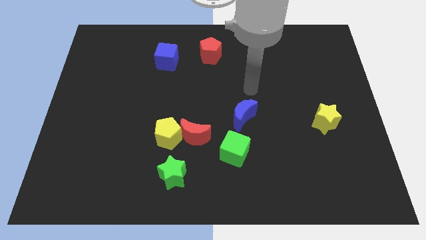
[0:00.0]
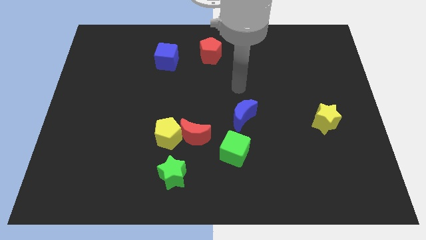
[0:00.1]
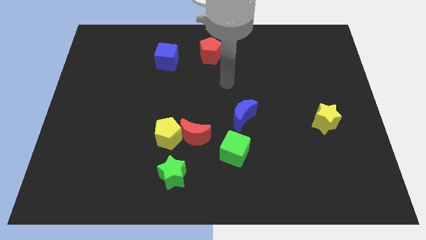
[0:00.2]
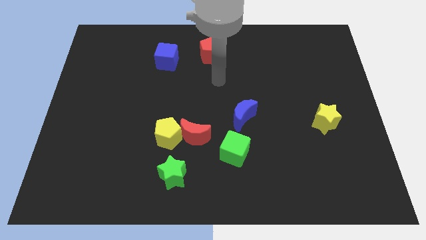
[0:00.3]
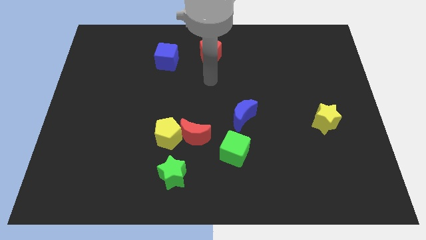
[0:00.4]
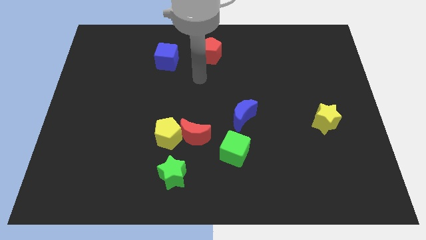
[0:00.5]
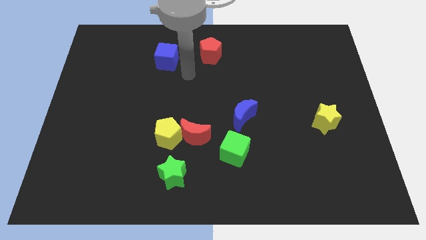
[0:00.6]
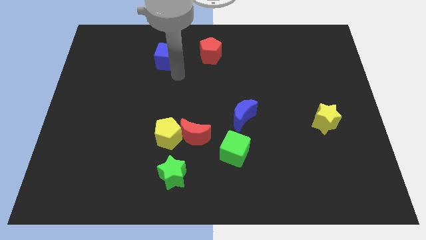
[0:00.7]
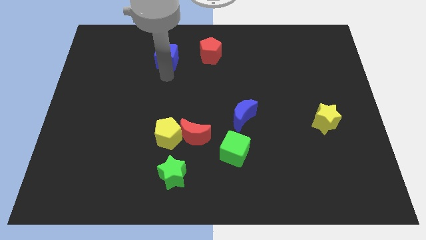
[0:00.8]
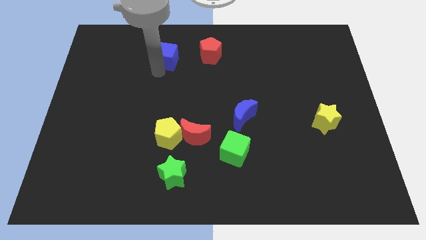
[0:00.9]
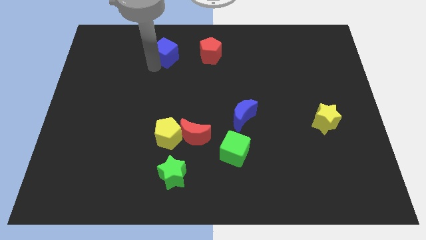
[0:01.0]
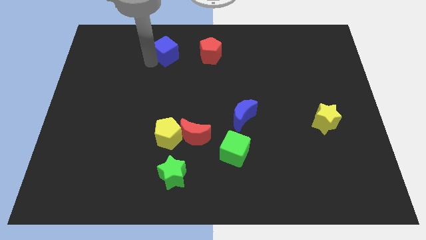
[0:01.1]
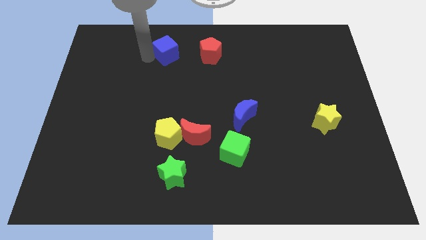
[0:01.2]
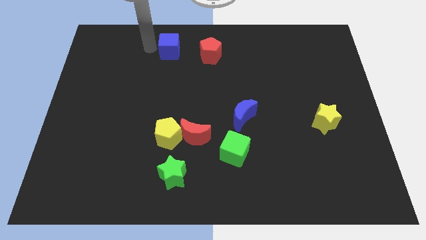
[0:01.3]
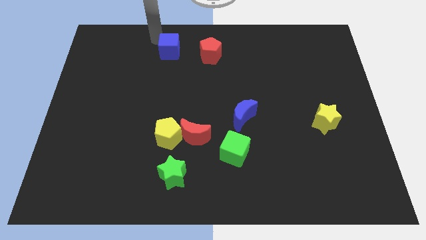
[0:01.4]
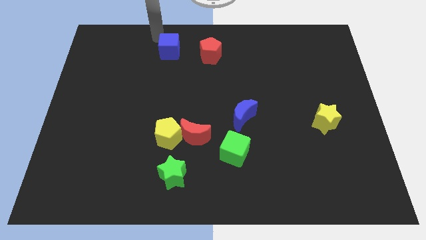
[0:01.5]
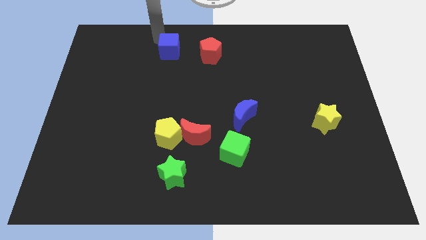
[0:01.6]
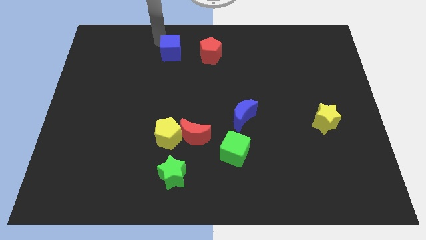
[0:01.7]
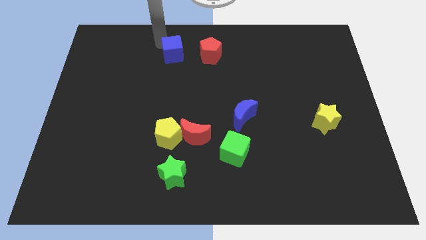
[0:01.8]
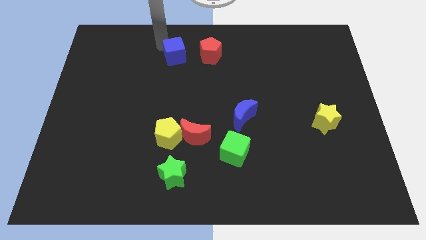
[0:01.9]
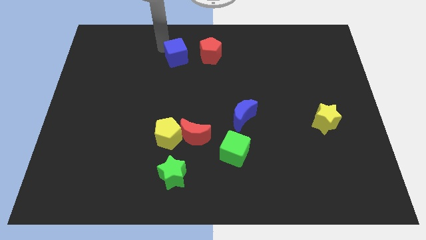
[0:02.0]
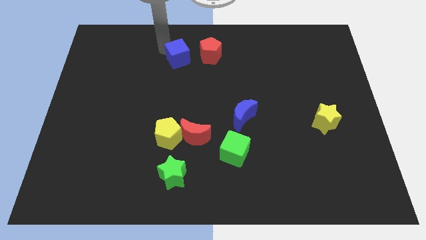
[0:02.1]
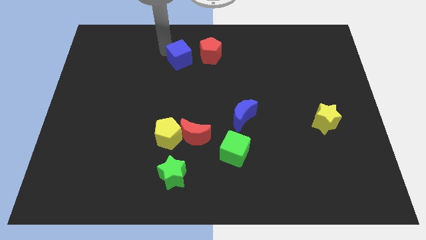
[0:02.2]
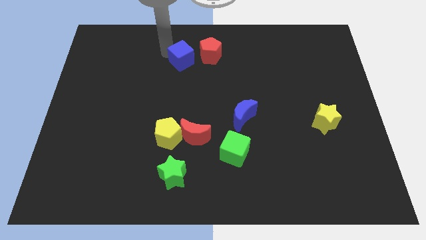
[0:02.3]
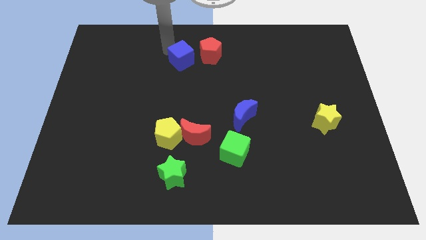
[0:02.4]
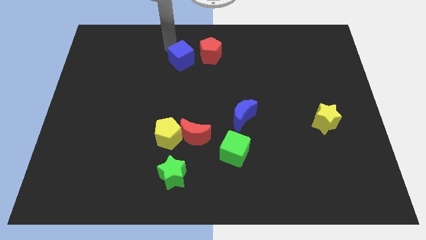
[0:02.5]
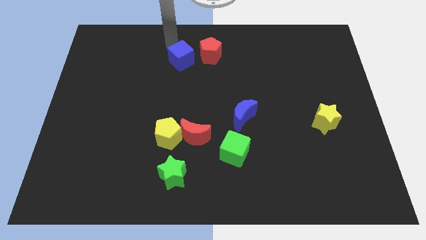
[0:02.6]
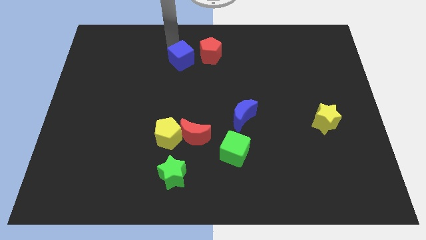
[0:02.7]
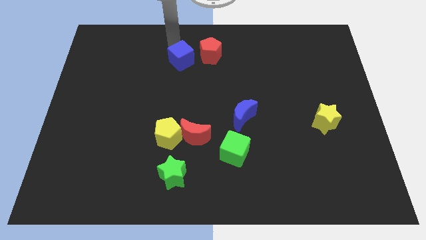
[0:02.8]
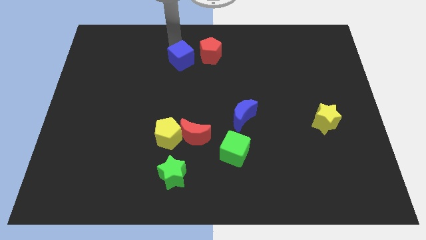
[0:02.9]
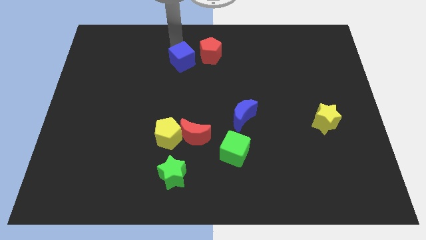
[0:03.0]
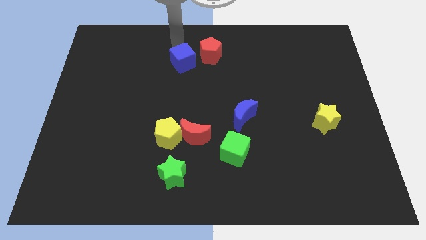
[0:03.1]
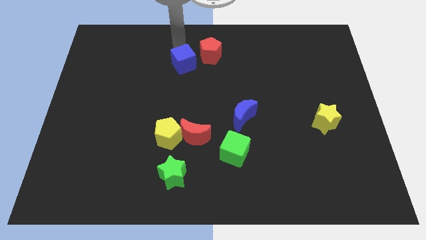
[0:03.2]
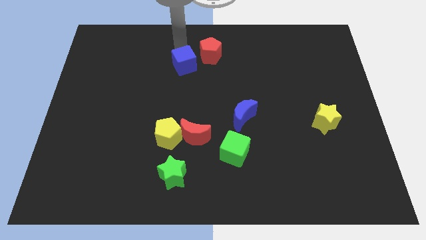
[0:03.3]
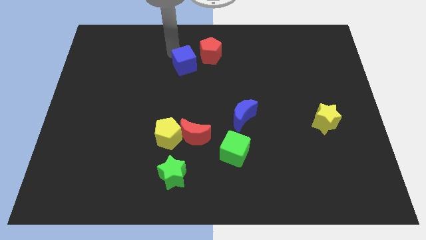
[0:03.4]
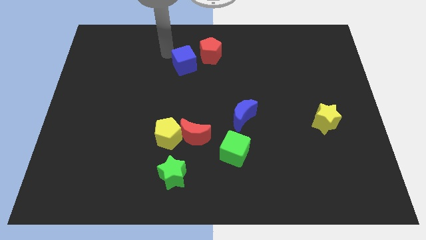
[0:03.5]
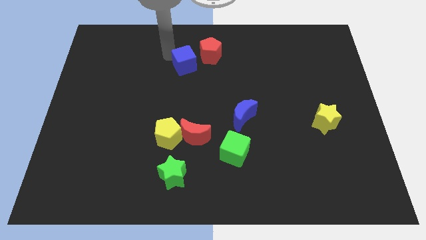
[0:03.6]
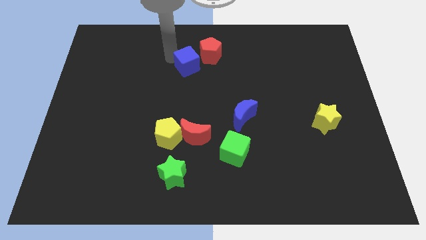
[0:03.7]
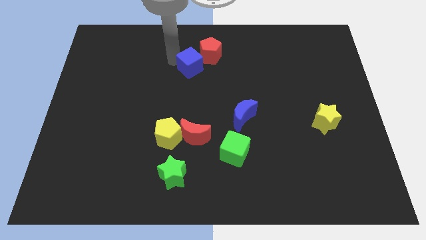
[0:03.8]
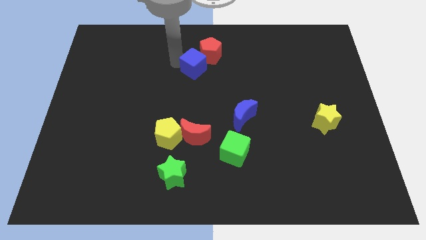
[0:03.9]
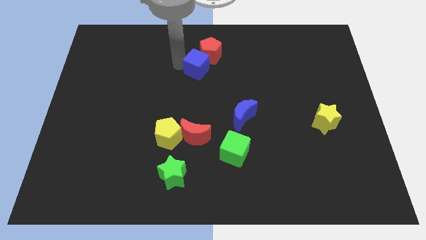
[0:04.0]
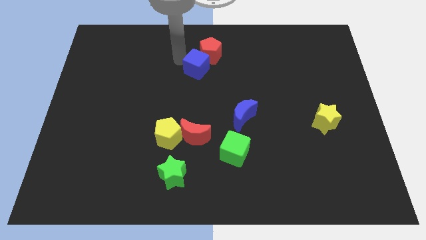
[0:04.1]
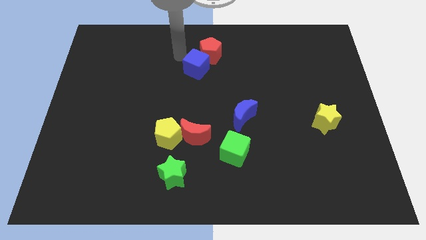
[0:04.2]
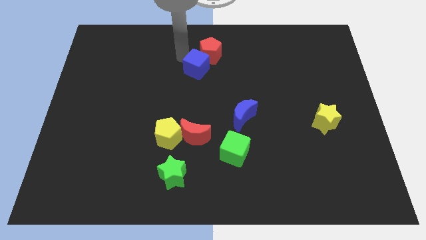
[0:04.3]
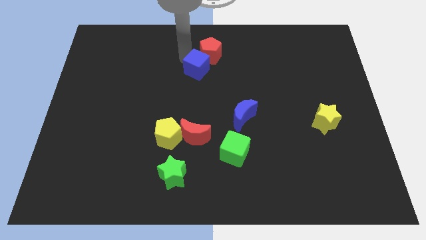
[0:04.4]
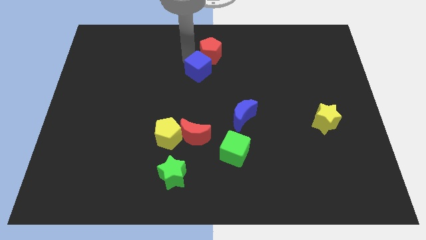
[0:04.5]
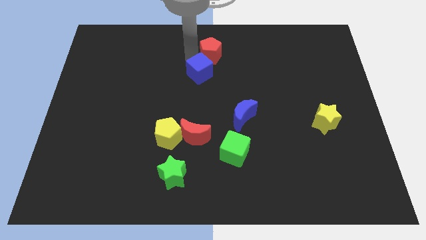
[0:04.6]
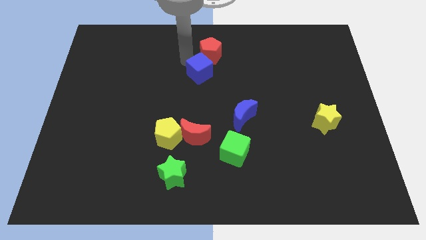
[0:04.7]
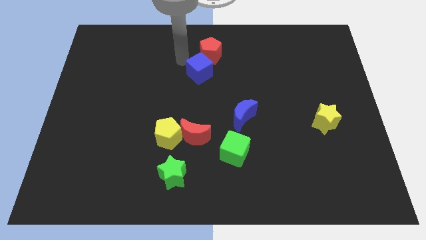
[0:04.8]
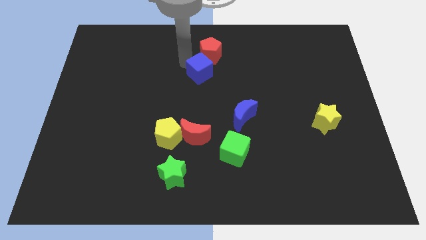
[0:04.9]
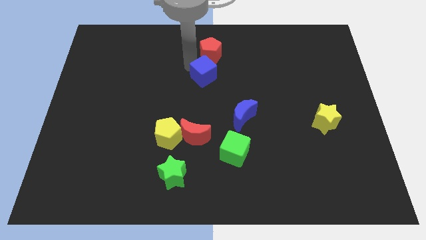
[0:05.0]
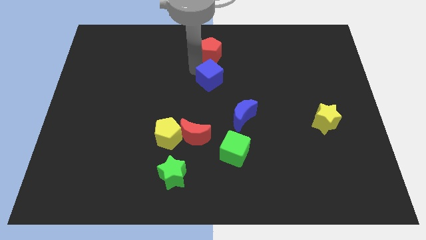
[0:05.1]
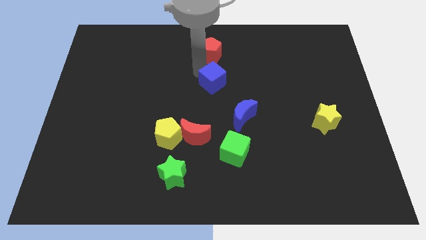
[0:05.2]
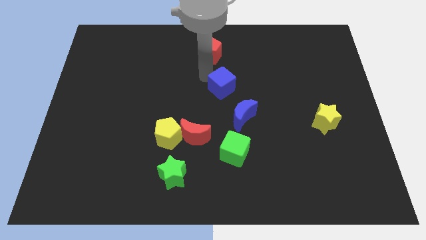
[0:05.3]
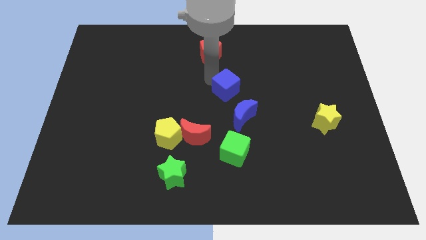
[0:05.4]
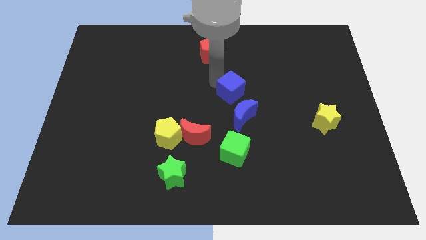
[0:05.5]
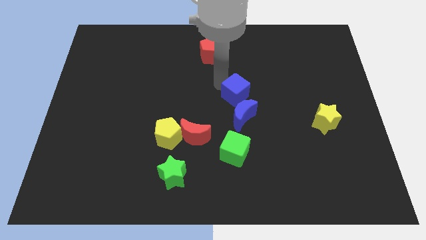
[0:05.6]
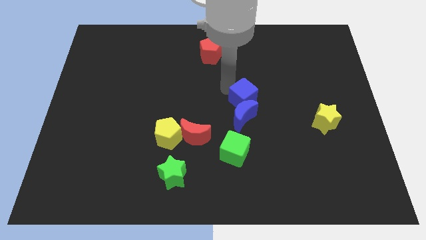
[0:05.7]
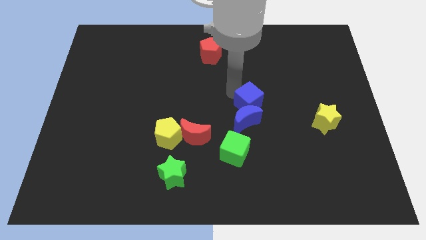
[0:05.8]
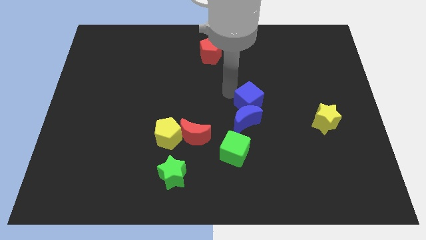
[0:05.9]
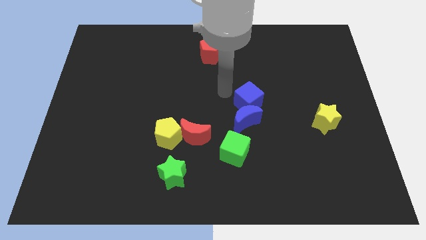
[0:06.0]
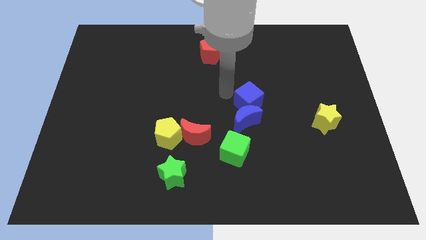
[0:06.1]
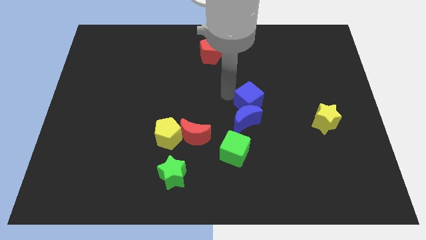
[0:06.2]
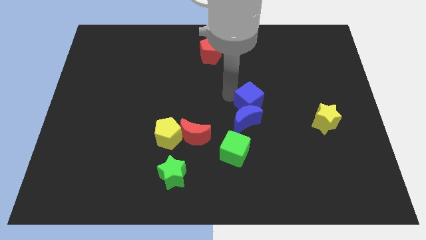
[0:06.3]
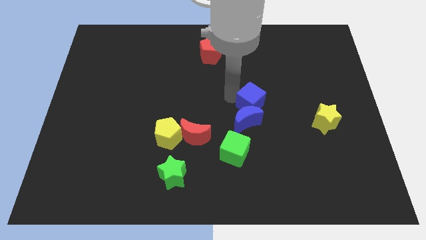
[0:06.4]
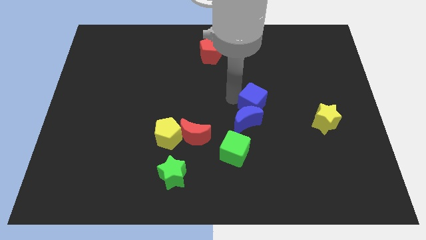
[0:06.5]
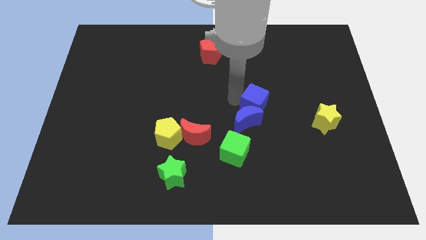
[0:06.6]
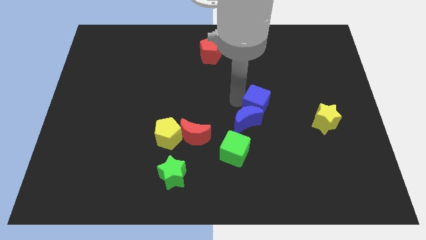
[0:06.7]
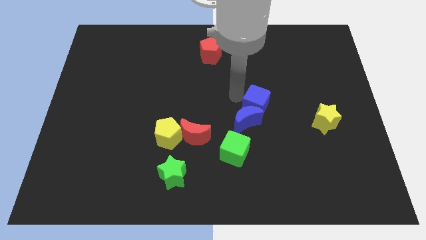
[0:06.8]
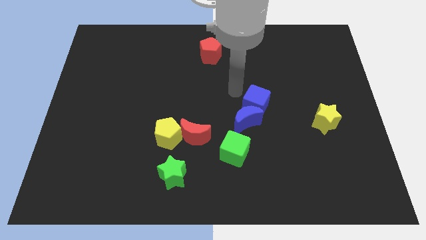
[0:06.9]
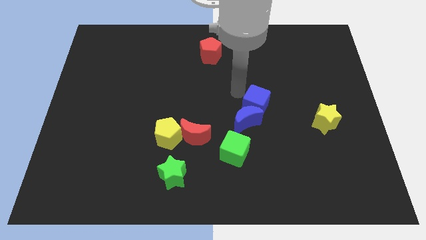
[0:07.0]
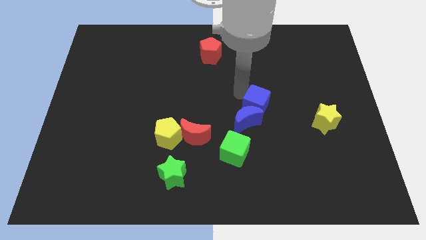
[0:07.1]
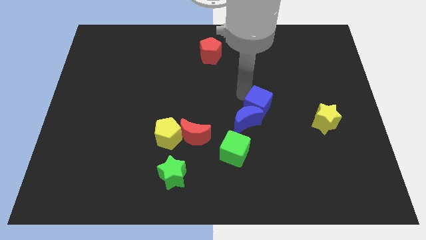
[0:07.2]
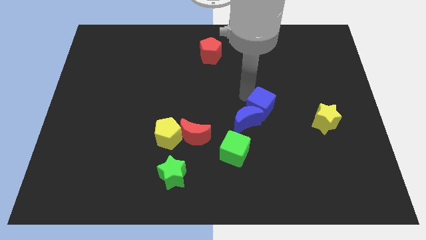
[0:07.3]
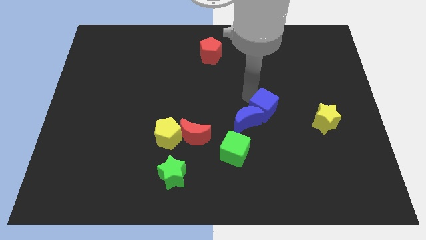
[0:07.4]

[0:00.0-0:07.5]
move the blue cube to the left side of the yellow star
